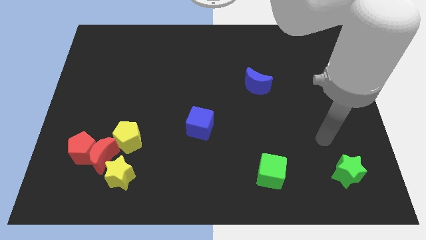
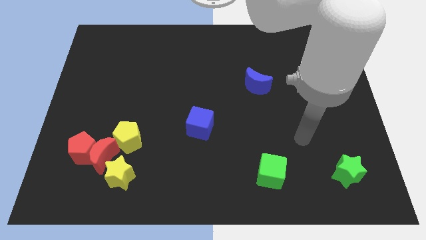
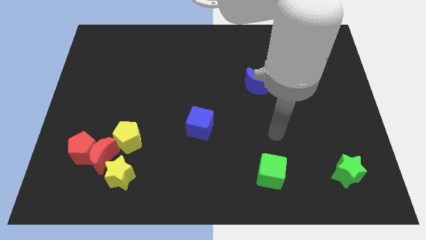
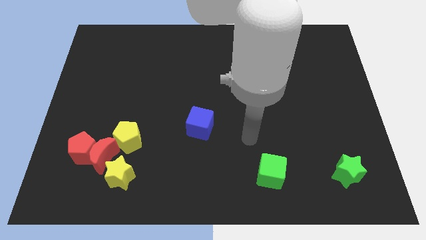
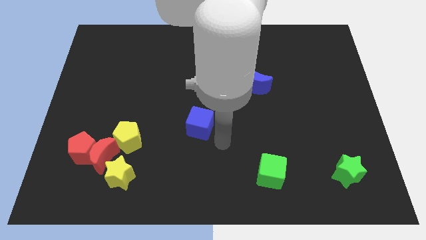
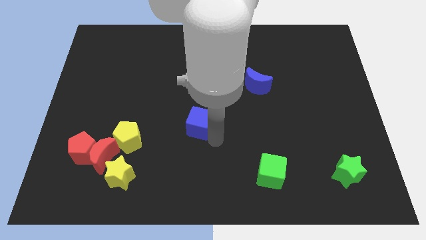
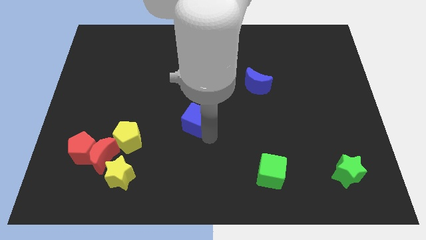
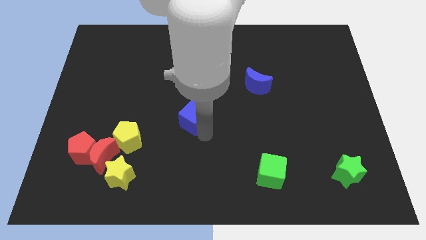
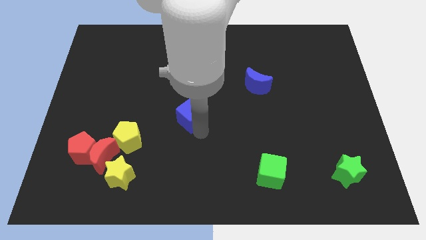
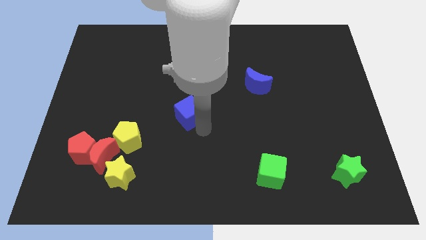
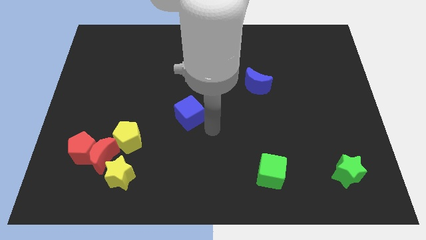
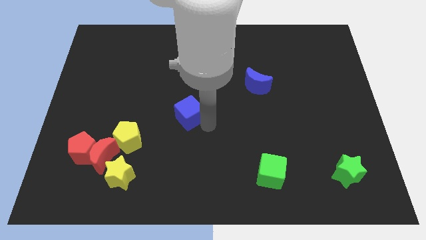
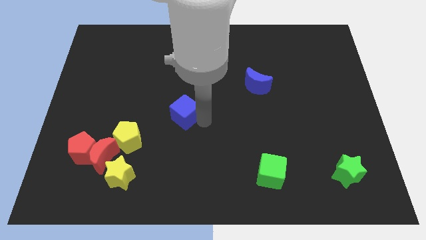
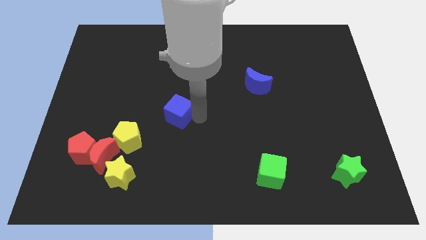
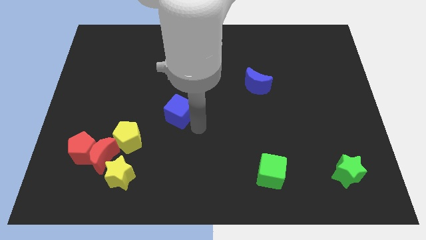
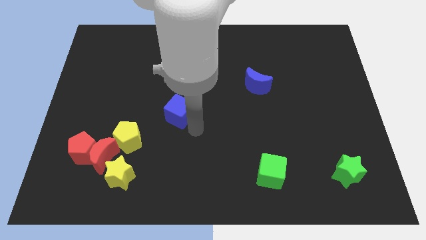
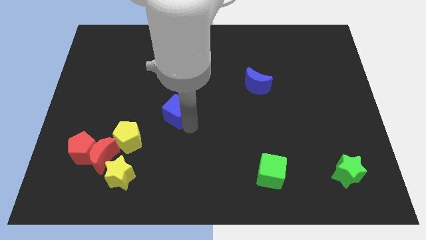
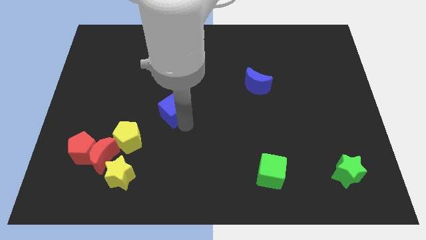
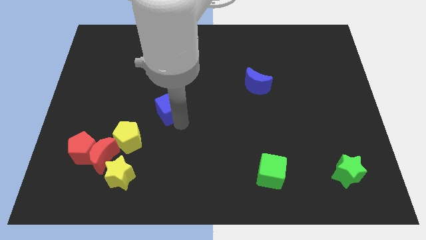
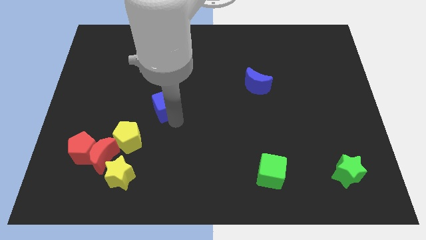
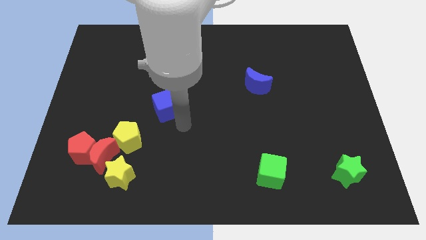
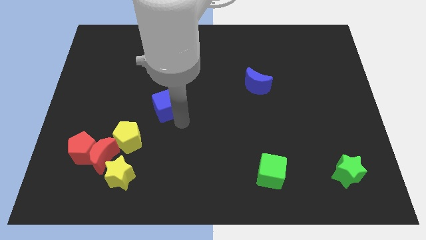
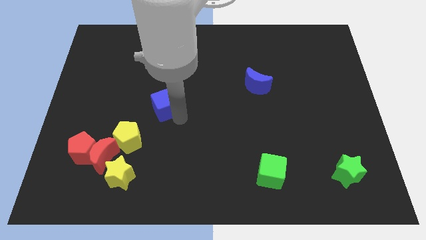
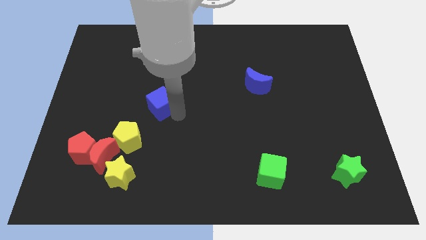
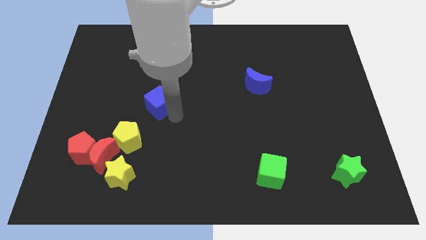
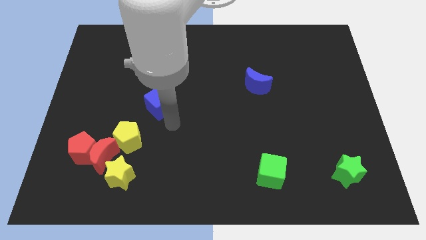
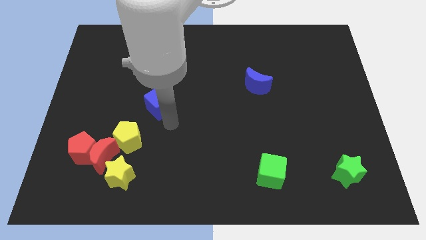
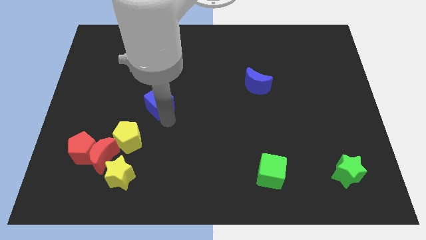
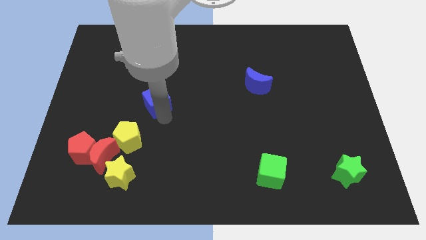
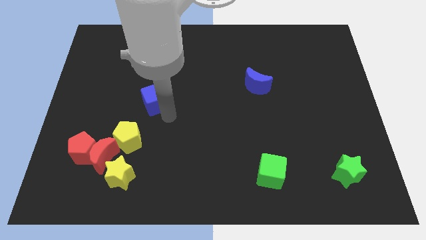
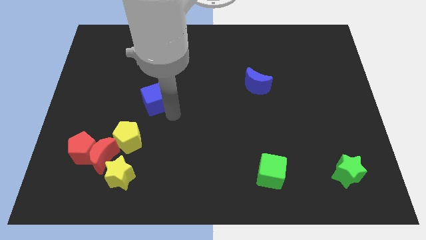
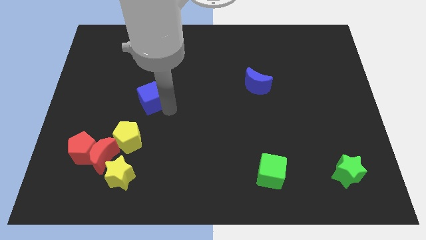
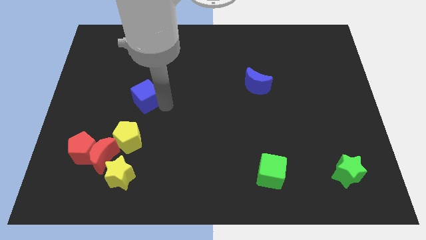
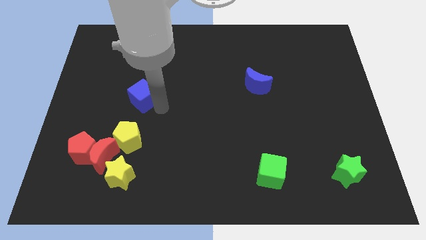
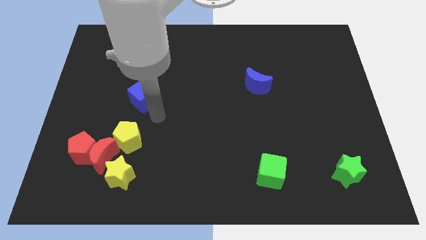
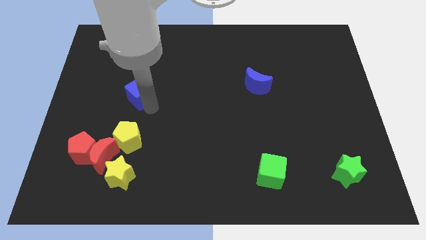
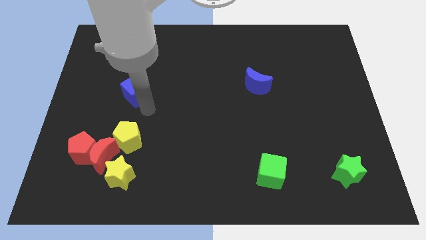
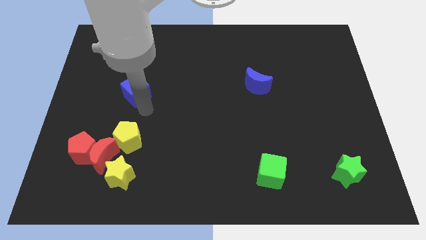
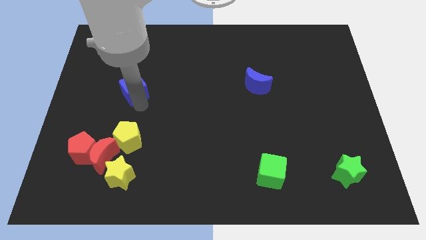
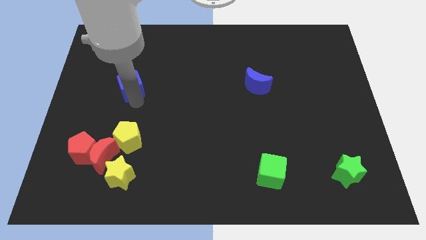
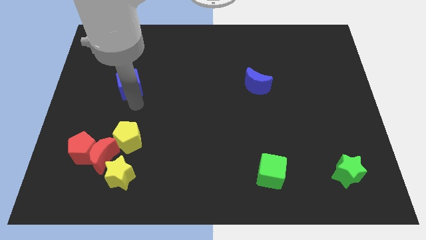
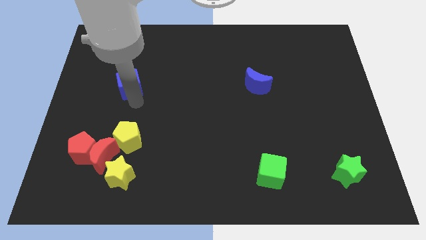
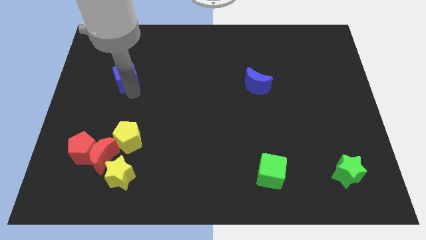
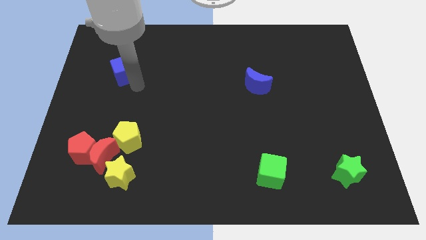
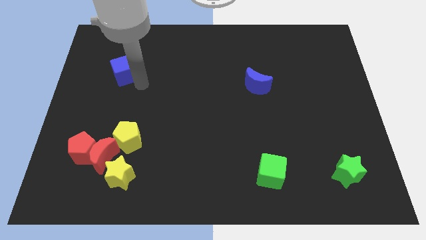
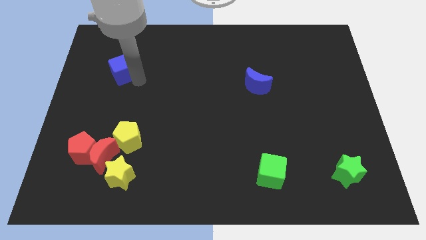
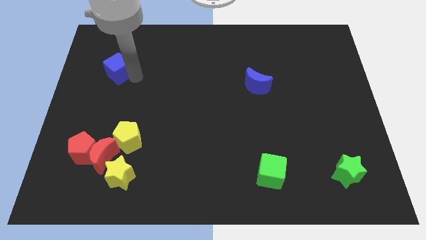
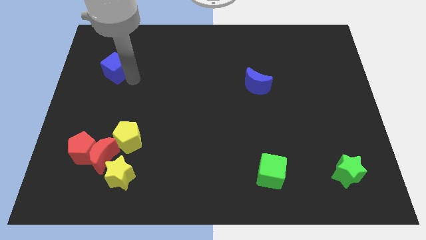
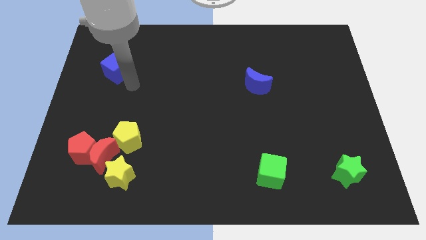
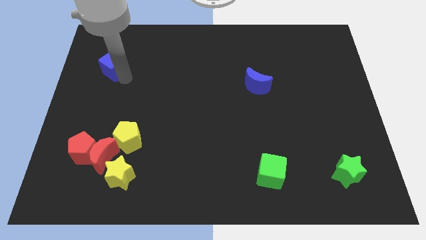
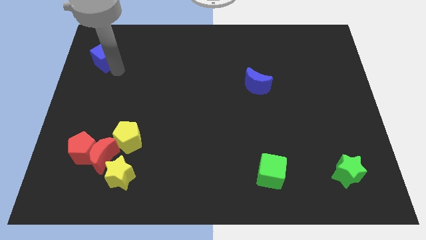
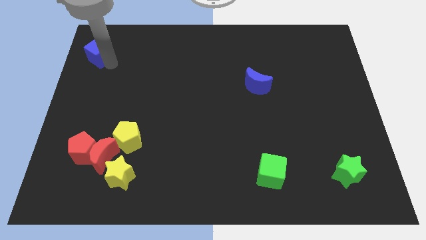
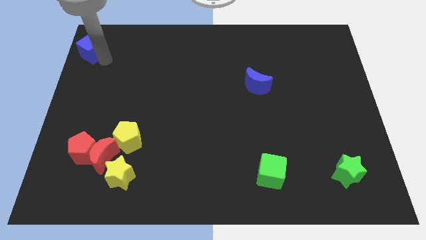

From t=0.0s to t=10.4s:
slide the blue cube to the top left of the board

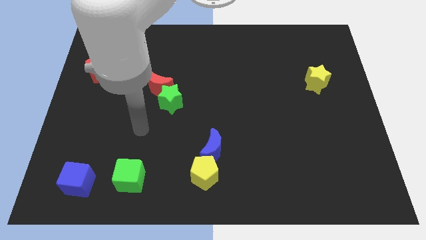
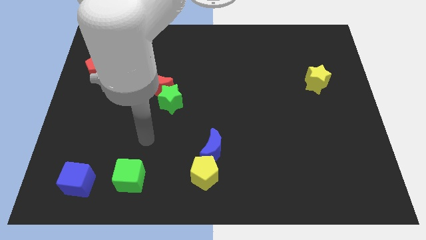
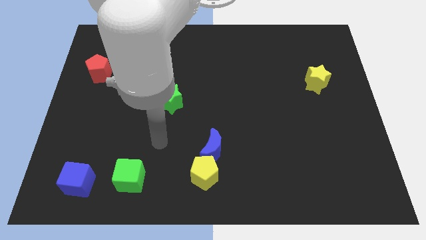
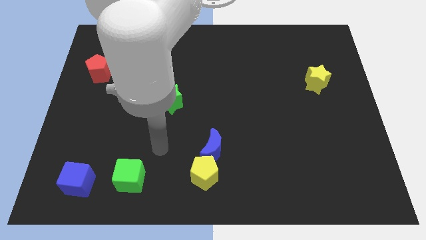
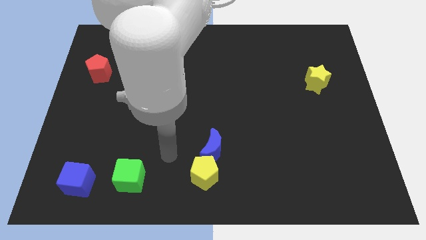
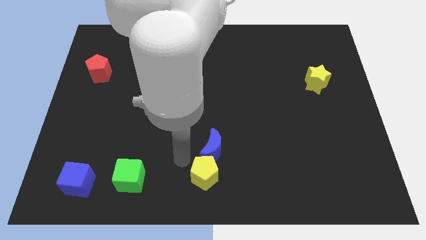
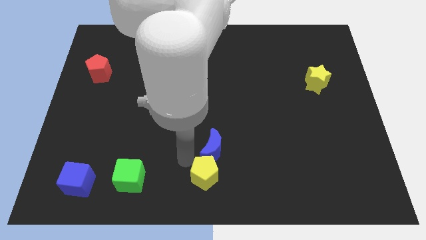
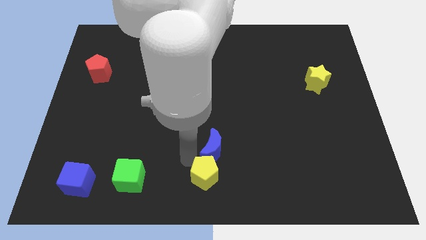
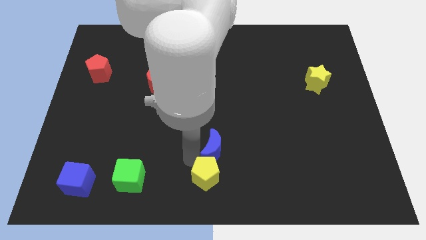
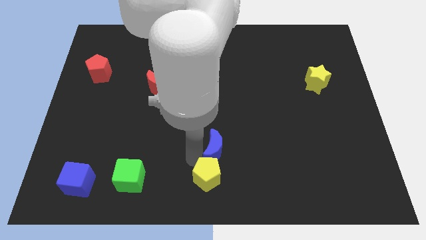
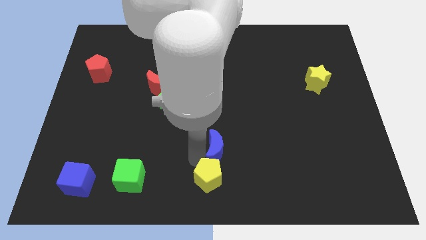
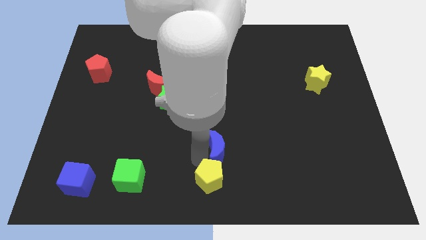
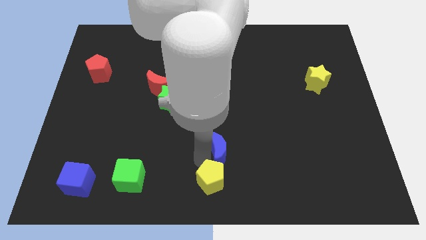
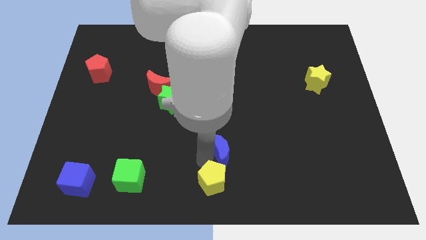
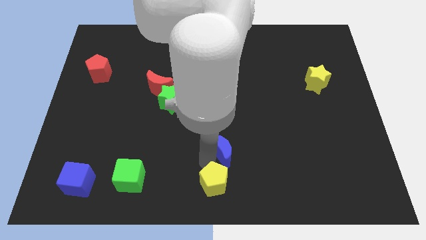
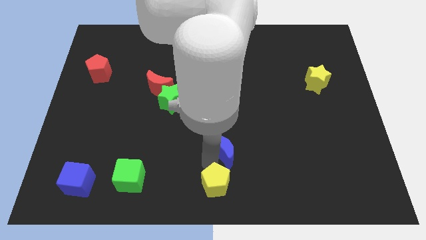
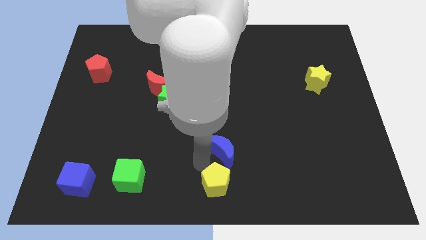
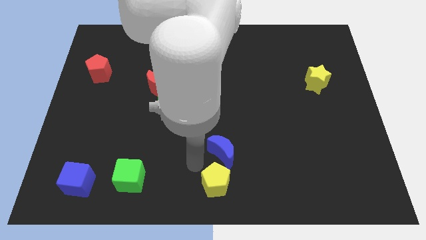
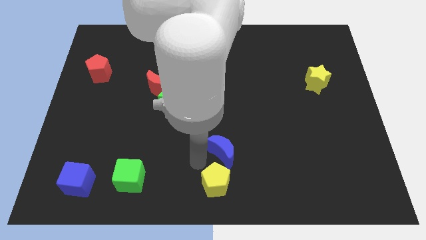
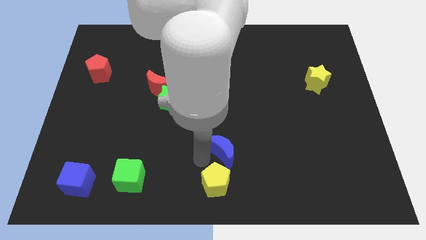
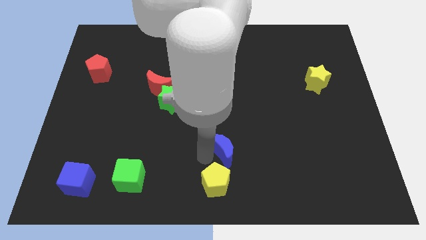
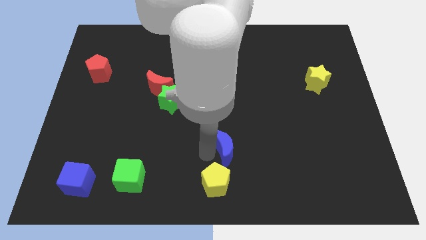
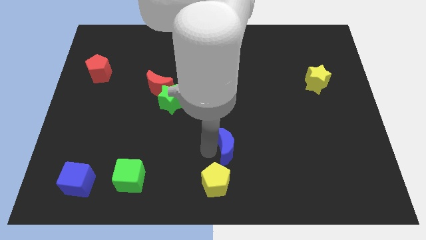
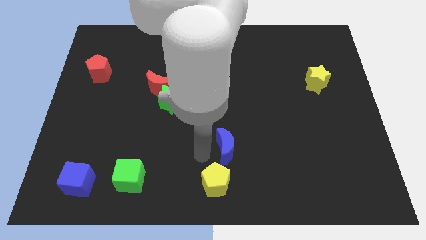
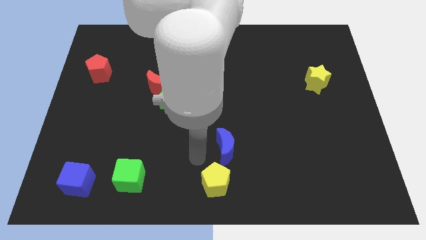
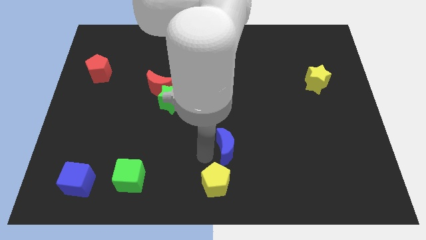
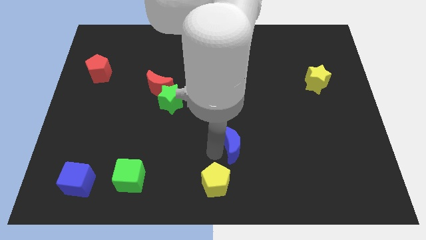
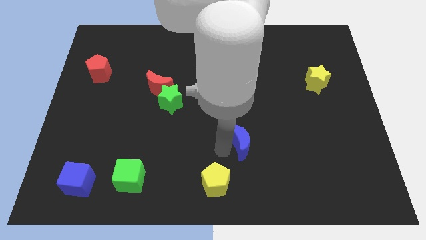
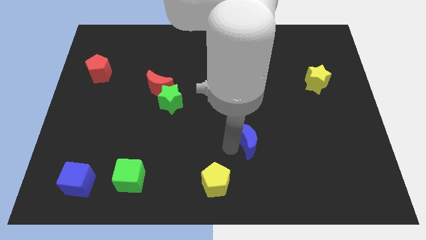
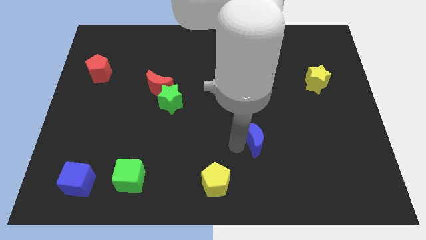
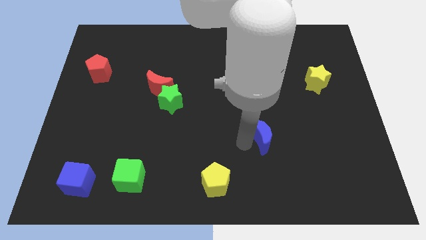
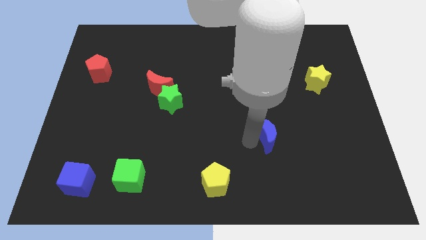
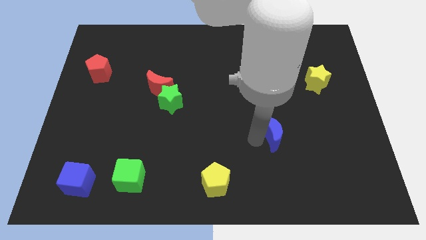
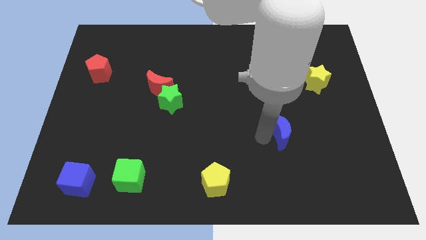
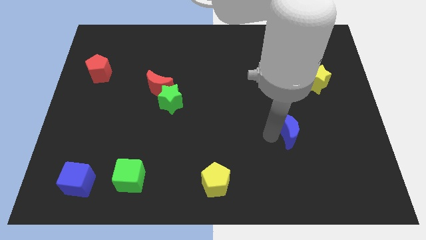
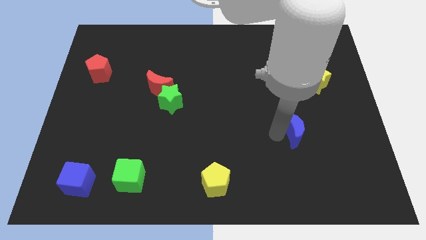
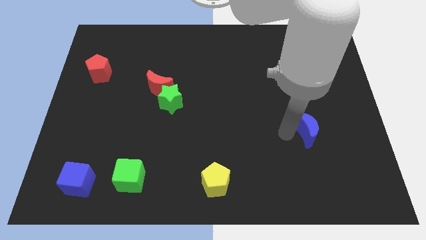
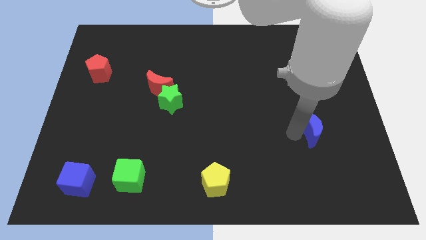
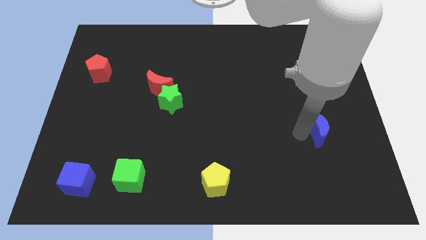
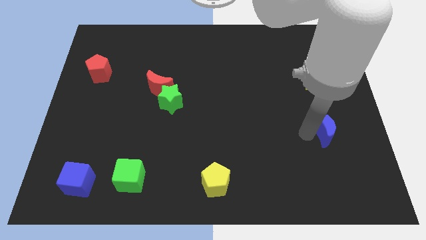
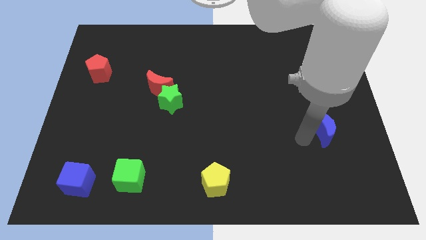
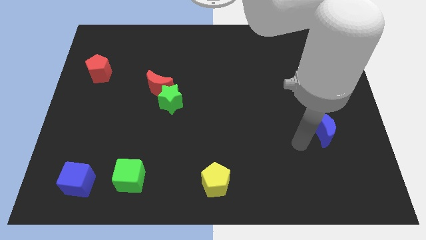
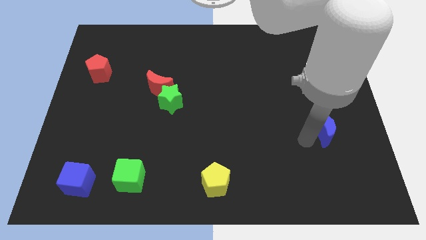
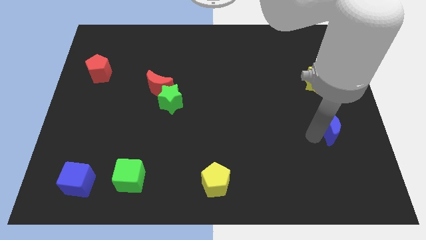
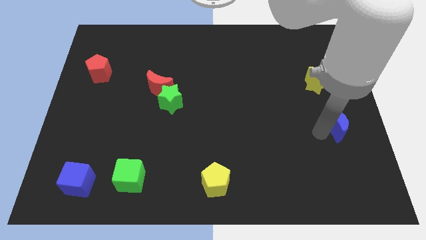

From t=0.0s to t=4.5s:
put the blue moon to the center right
